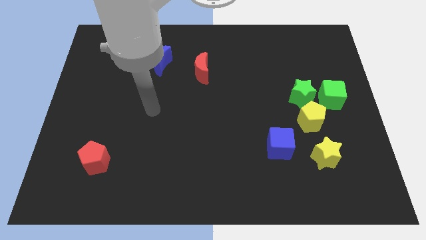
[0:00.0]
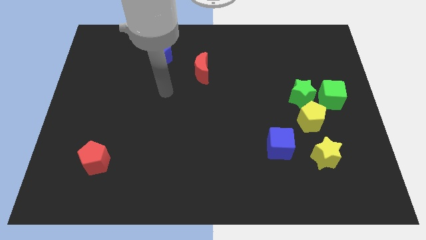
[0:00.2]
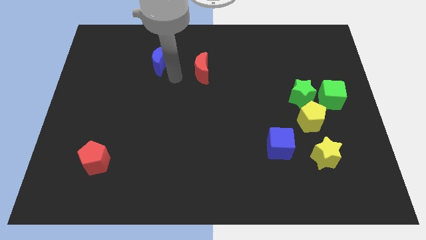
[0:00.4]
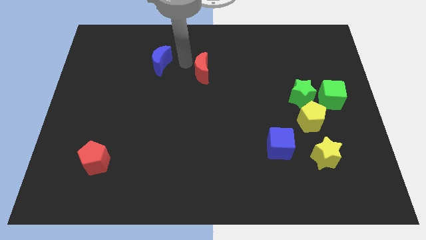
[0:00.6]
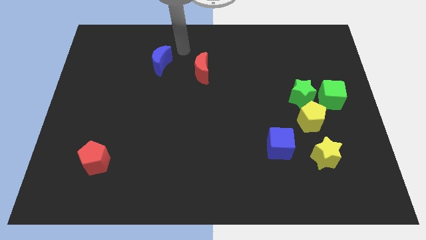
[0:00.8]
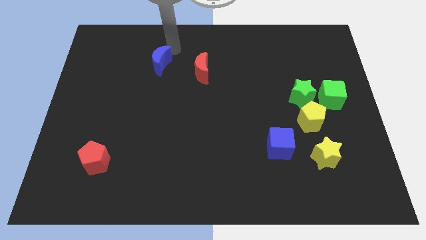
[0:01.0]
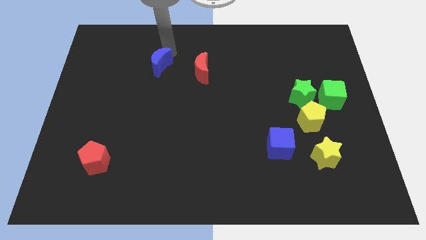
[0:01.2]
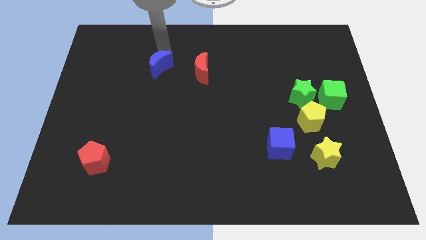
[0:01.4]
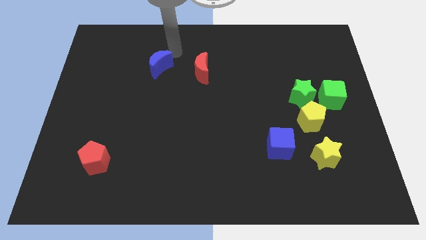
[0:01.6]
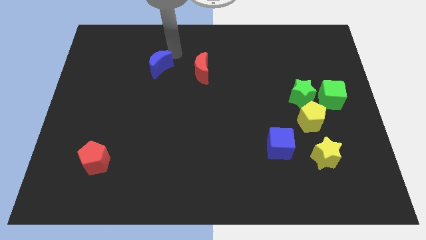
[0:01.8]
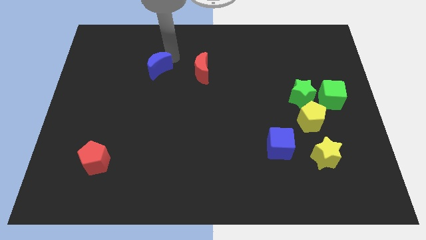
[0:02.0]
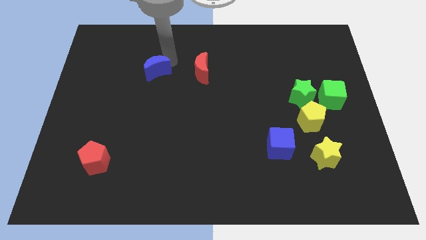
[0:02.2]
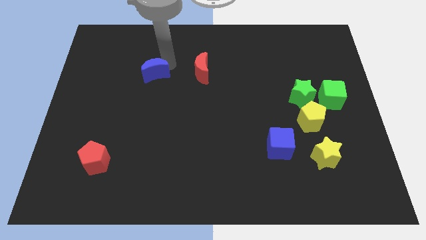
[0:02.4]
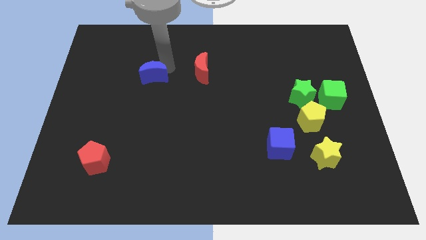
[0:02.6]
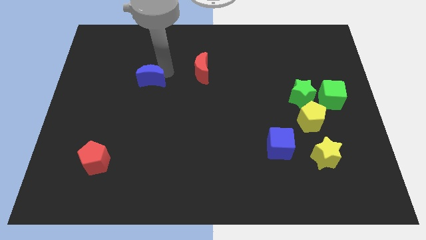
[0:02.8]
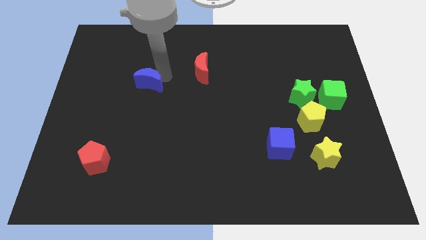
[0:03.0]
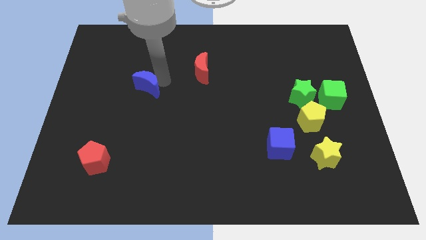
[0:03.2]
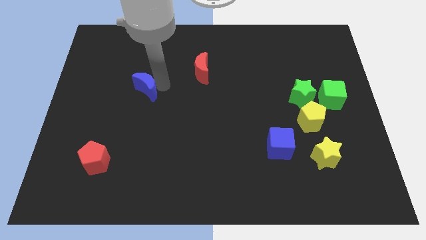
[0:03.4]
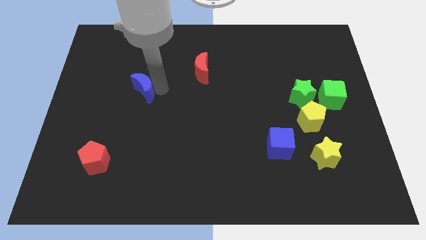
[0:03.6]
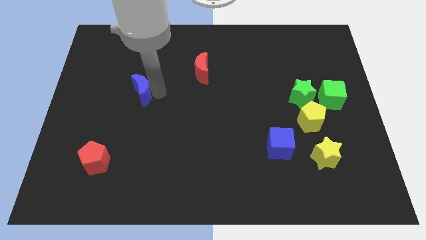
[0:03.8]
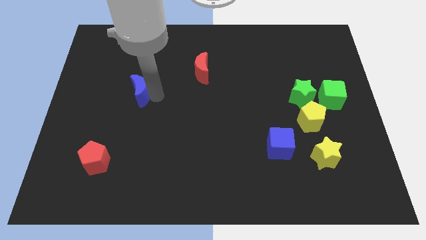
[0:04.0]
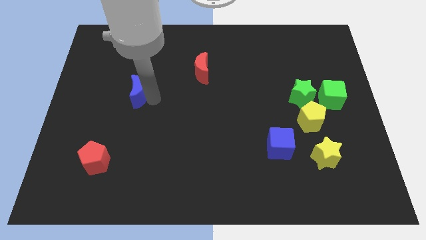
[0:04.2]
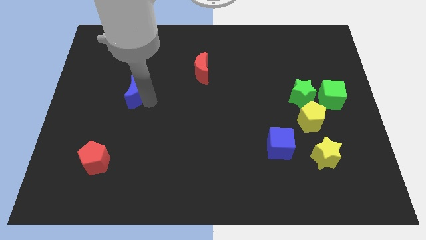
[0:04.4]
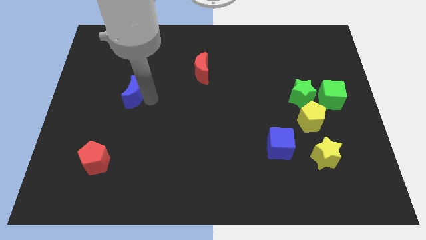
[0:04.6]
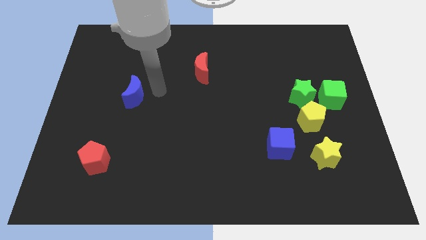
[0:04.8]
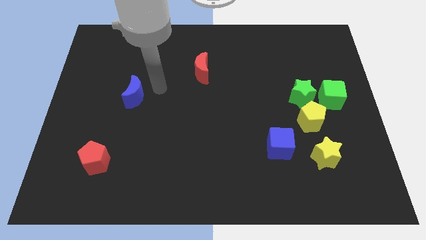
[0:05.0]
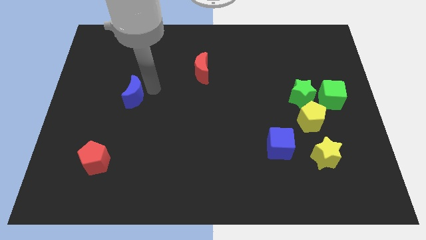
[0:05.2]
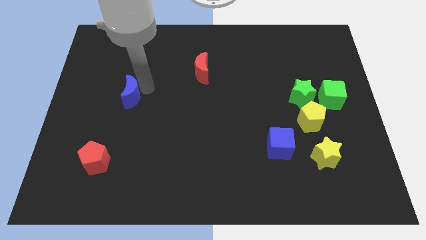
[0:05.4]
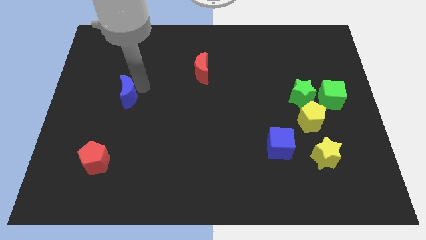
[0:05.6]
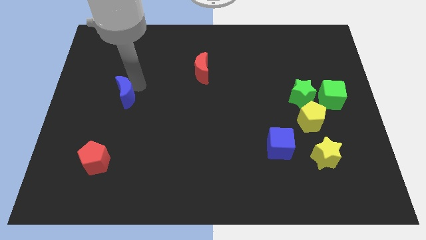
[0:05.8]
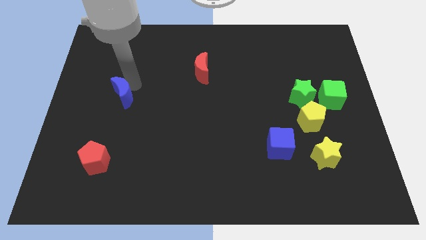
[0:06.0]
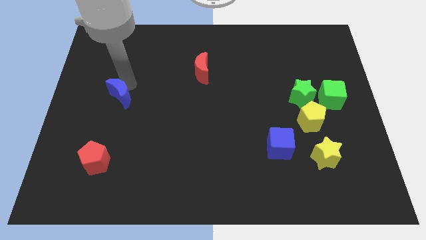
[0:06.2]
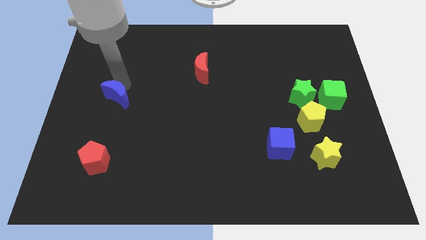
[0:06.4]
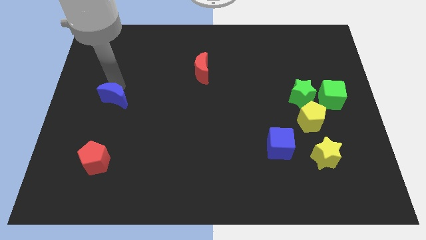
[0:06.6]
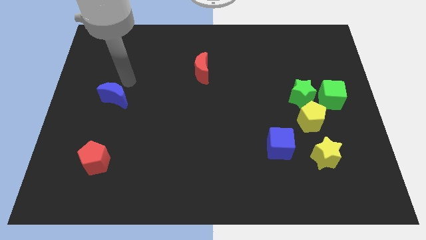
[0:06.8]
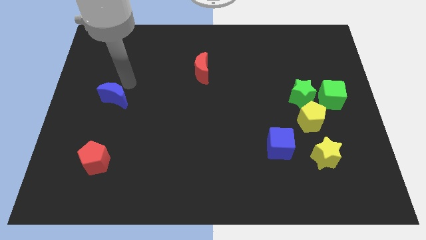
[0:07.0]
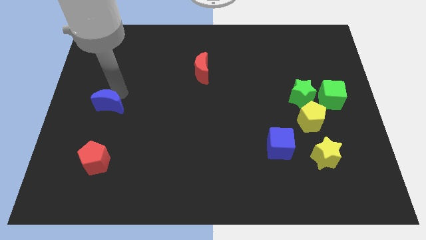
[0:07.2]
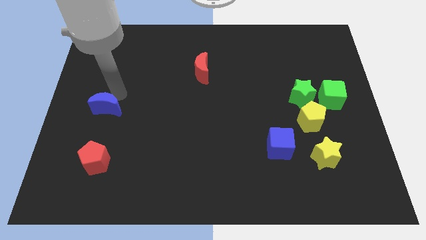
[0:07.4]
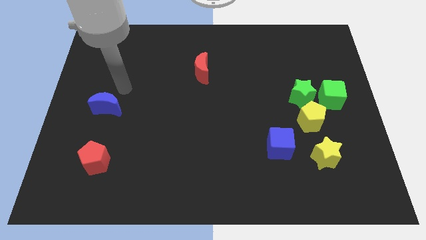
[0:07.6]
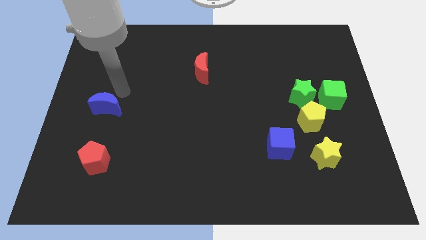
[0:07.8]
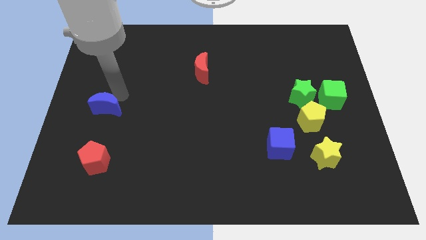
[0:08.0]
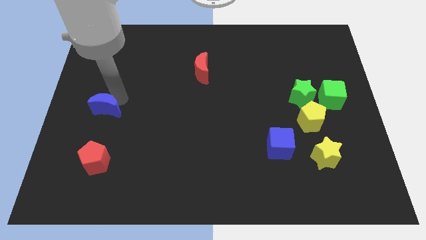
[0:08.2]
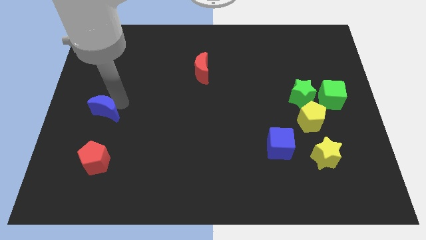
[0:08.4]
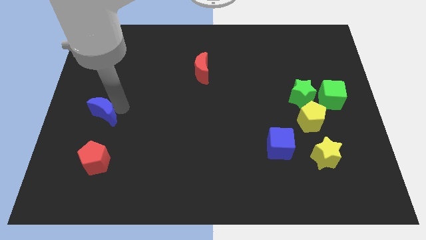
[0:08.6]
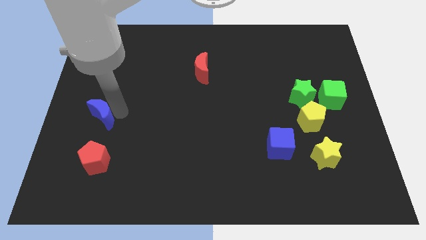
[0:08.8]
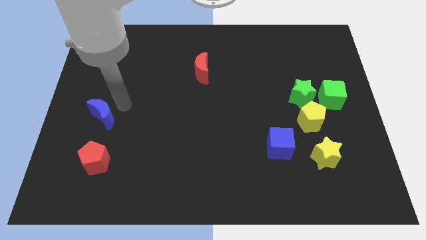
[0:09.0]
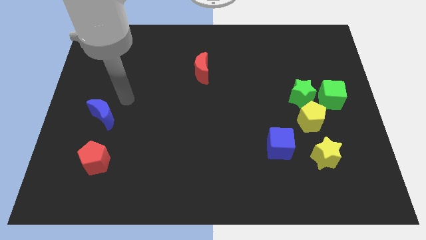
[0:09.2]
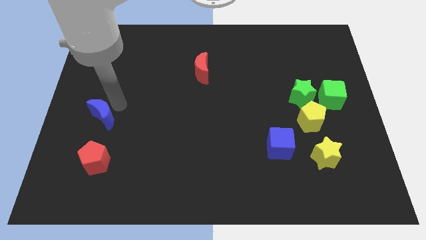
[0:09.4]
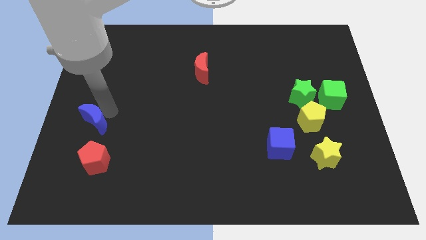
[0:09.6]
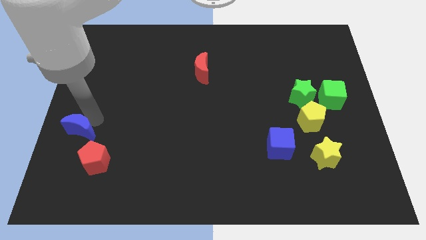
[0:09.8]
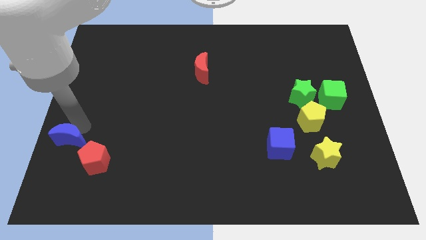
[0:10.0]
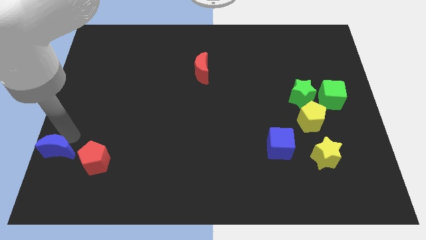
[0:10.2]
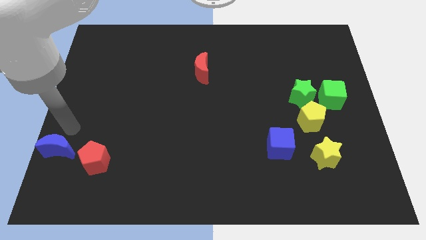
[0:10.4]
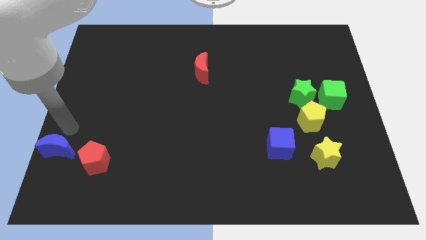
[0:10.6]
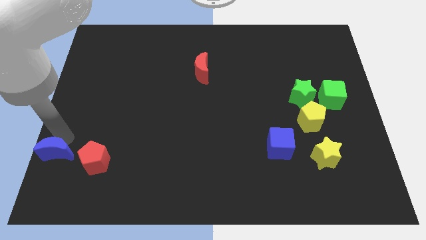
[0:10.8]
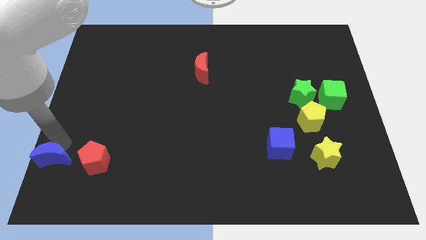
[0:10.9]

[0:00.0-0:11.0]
move the blue moon to the lower left corner

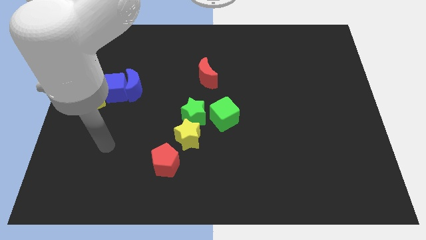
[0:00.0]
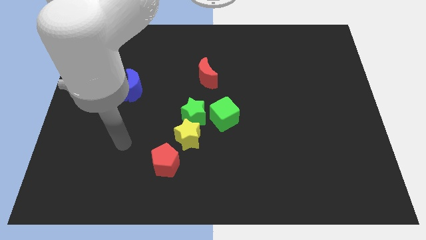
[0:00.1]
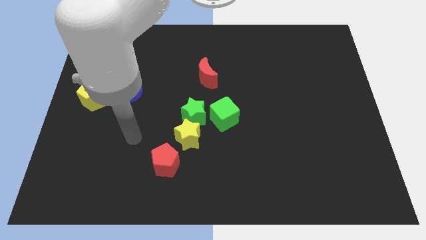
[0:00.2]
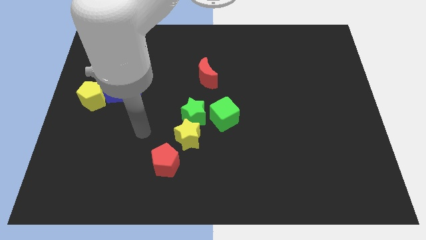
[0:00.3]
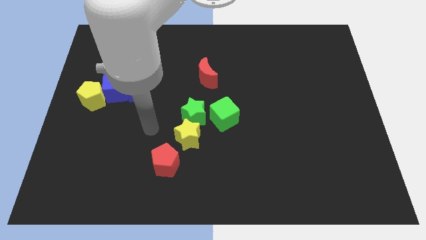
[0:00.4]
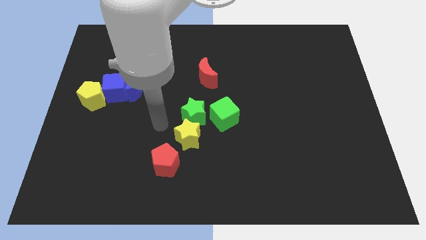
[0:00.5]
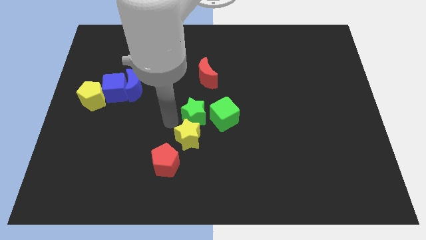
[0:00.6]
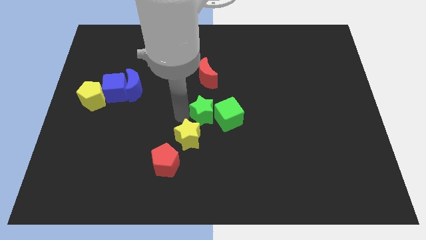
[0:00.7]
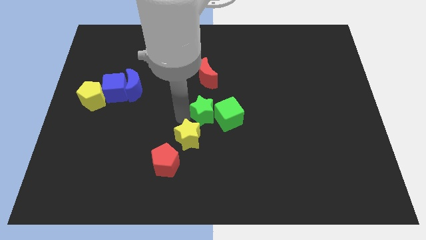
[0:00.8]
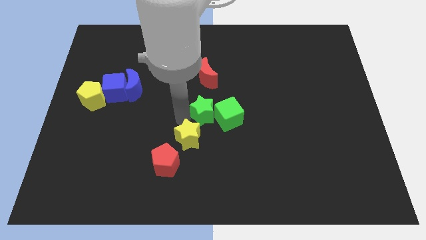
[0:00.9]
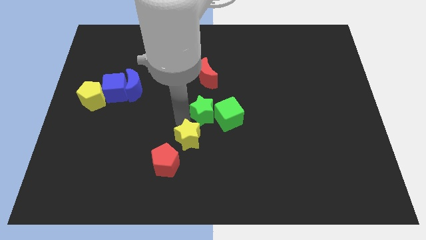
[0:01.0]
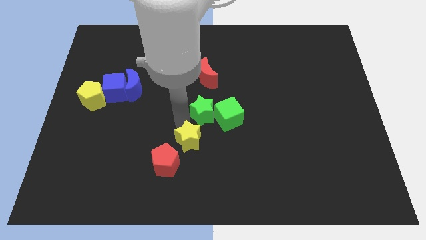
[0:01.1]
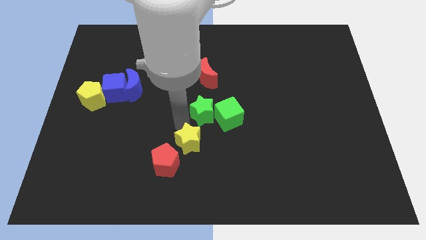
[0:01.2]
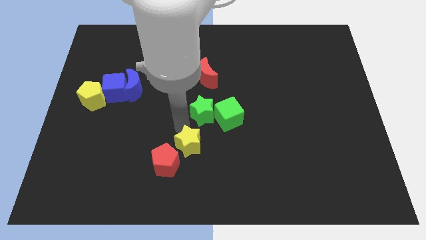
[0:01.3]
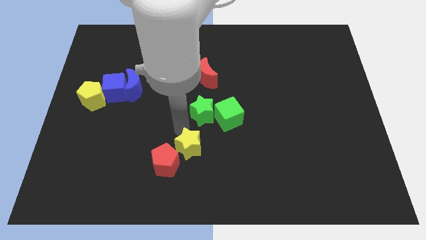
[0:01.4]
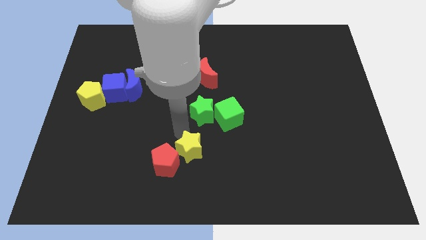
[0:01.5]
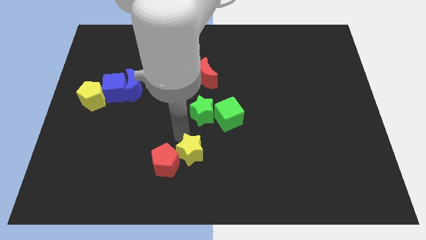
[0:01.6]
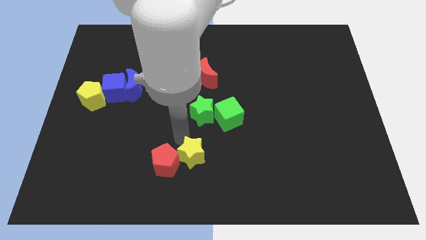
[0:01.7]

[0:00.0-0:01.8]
put the yellow star to the bottom
